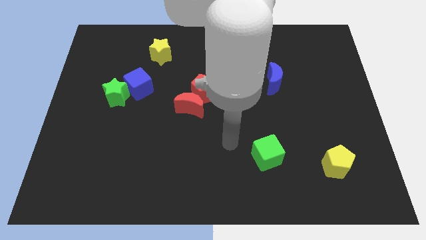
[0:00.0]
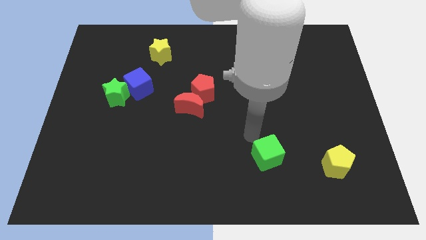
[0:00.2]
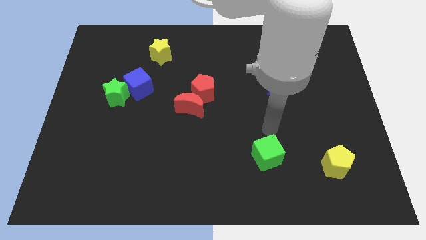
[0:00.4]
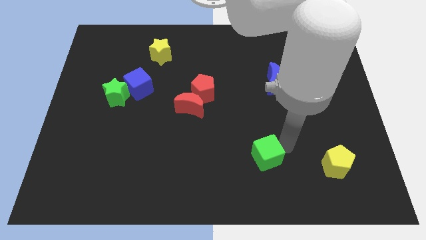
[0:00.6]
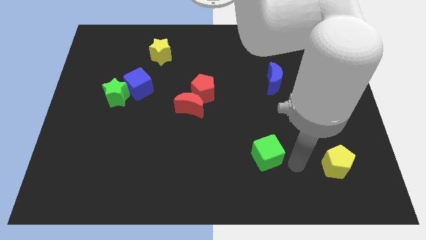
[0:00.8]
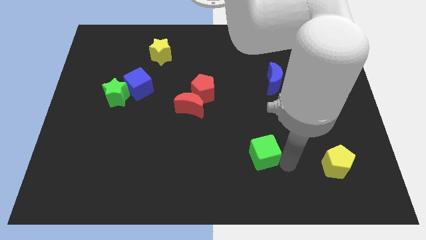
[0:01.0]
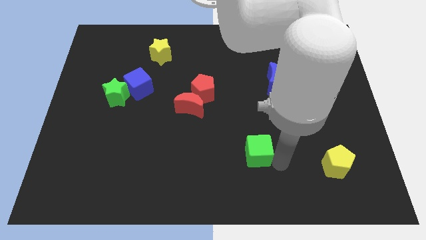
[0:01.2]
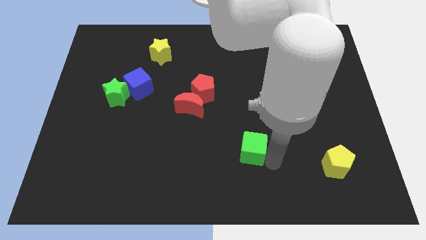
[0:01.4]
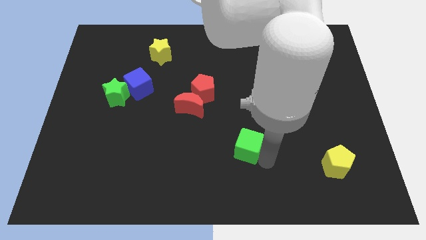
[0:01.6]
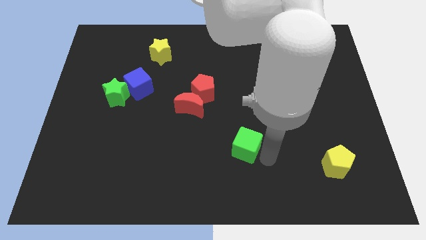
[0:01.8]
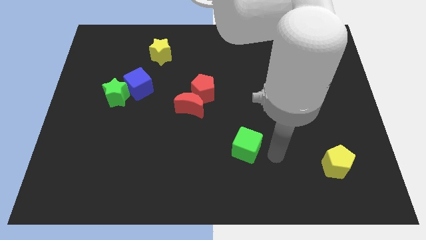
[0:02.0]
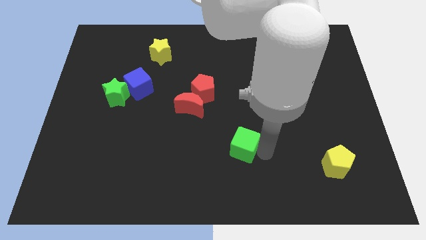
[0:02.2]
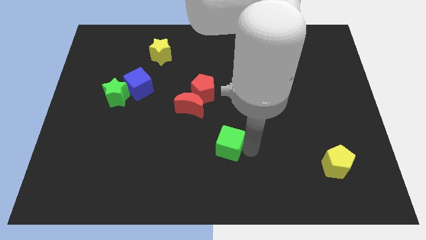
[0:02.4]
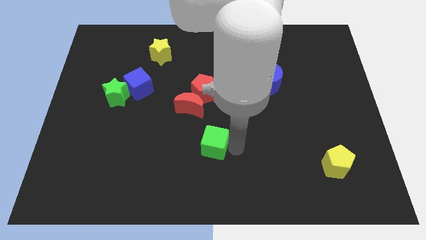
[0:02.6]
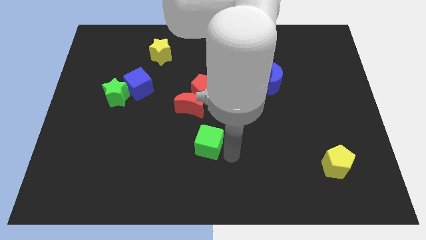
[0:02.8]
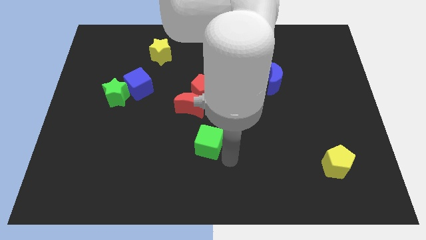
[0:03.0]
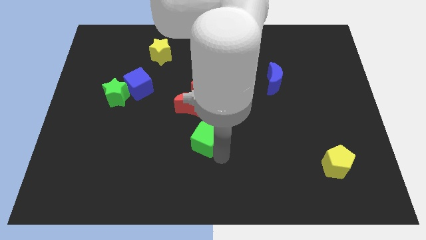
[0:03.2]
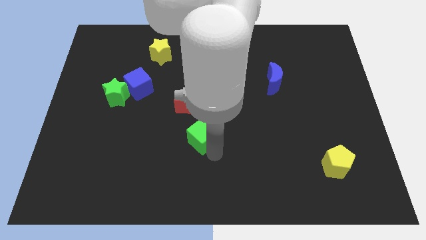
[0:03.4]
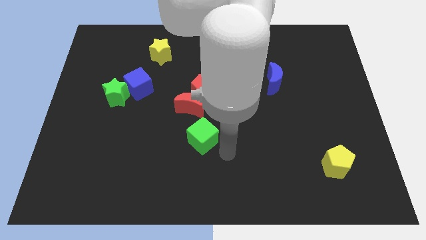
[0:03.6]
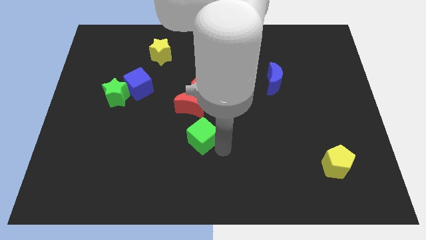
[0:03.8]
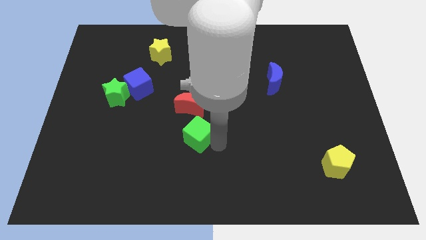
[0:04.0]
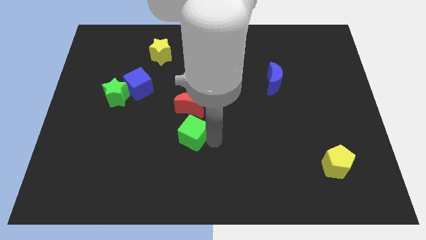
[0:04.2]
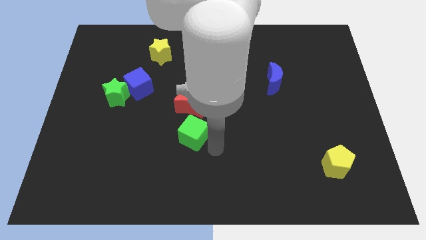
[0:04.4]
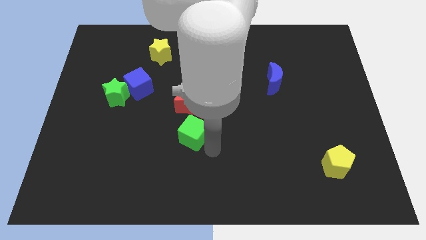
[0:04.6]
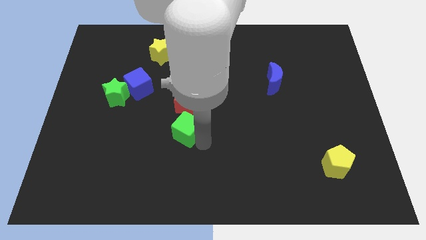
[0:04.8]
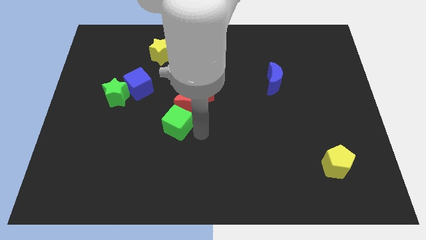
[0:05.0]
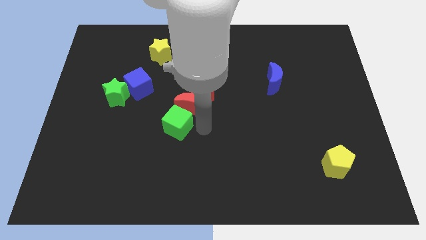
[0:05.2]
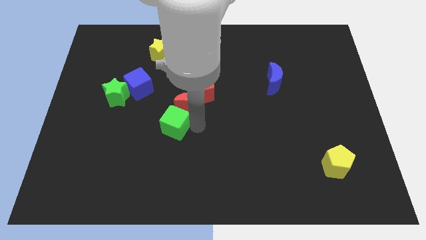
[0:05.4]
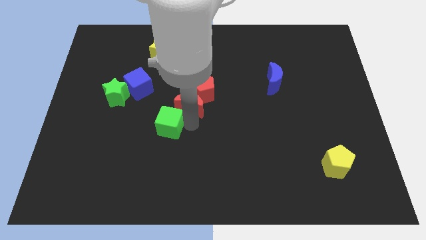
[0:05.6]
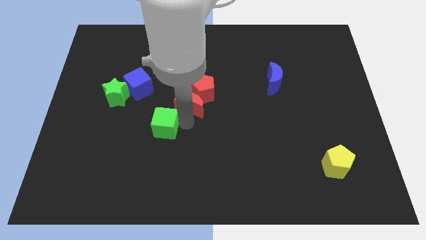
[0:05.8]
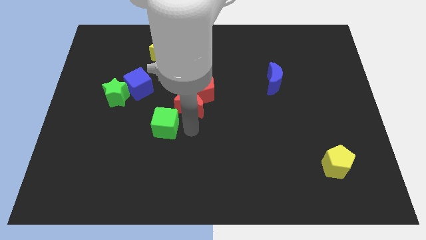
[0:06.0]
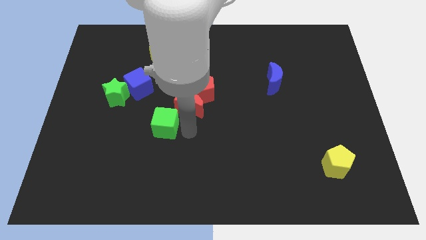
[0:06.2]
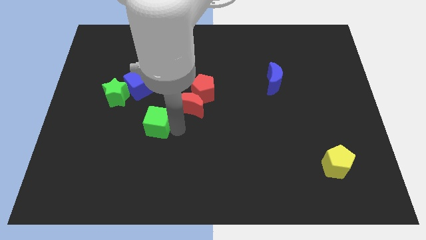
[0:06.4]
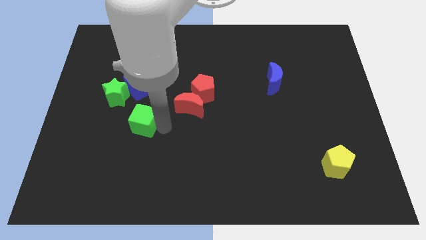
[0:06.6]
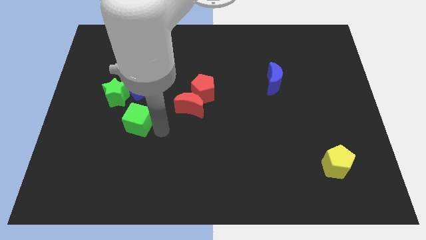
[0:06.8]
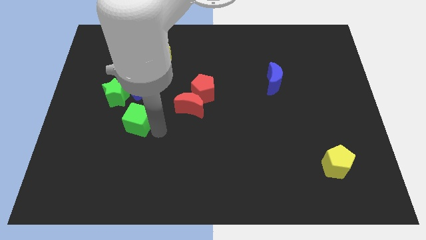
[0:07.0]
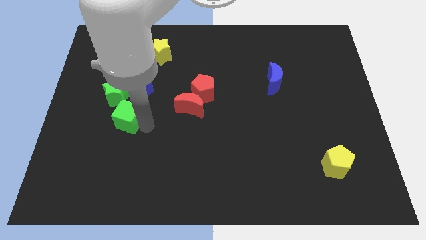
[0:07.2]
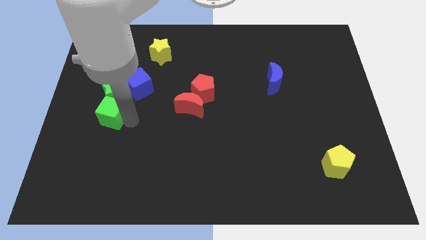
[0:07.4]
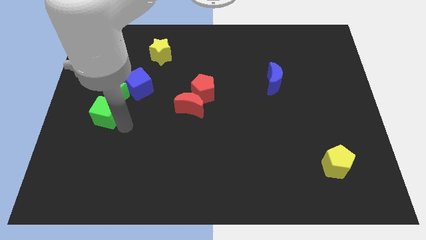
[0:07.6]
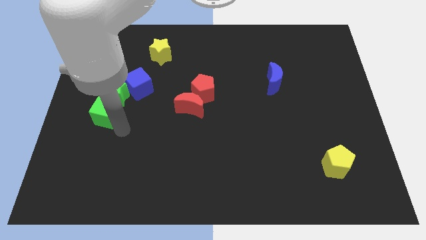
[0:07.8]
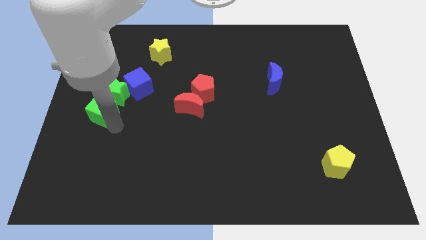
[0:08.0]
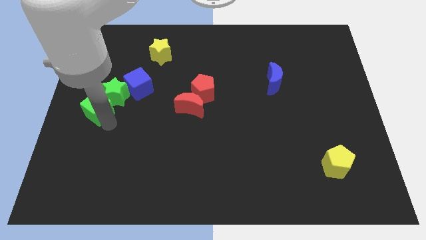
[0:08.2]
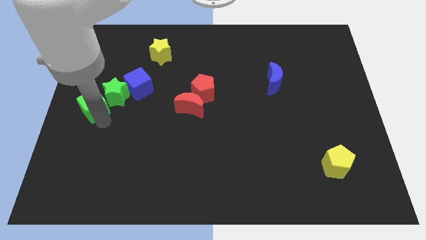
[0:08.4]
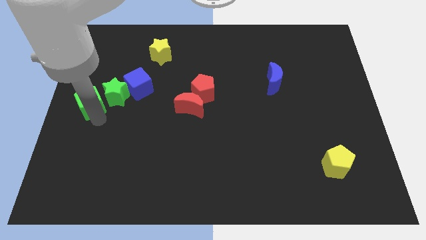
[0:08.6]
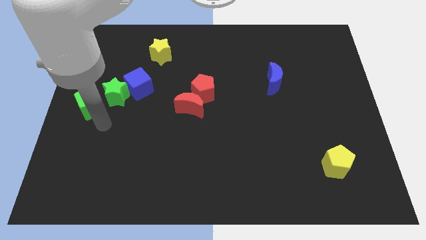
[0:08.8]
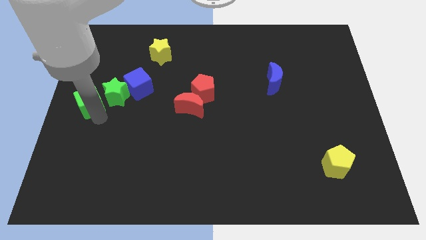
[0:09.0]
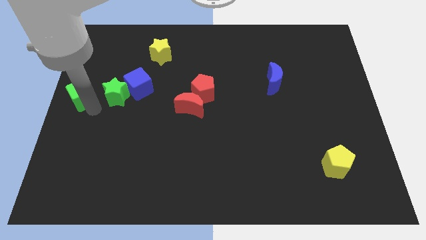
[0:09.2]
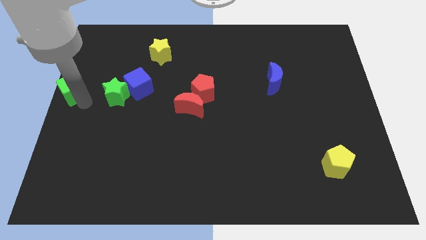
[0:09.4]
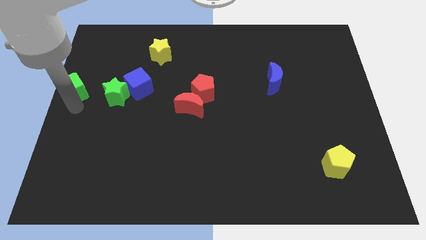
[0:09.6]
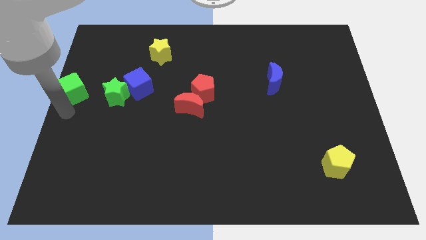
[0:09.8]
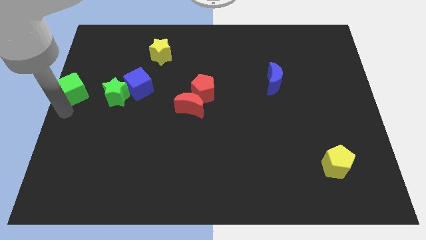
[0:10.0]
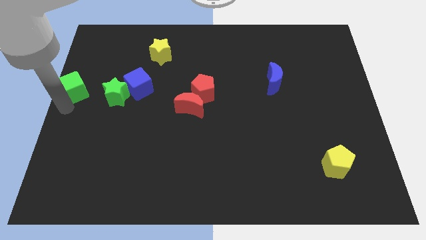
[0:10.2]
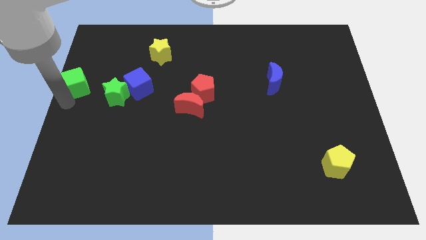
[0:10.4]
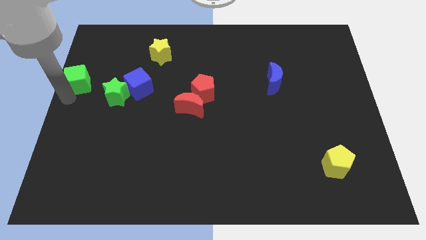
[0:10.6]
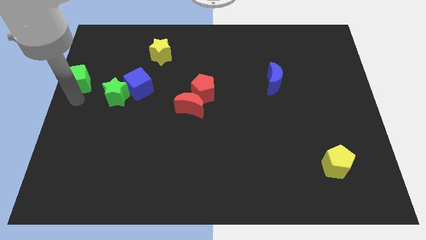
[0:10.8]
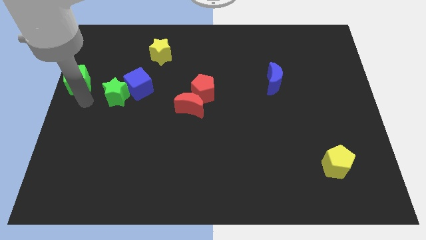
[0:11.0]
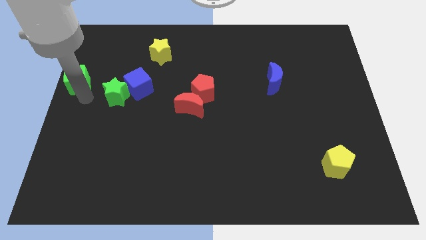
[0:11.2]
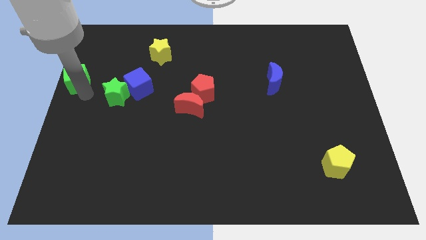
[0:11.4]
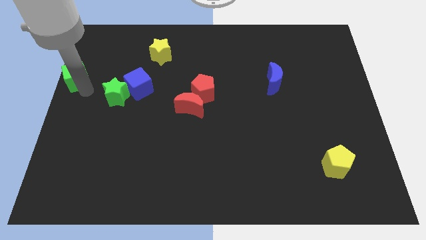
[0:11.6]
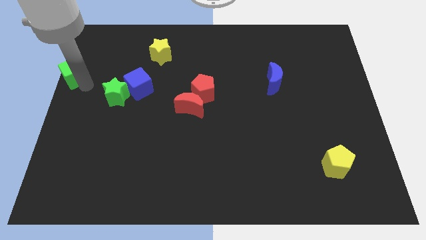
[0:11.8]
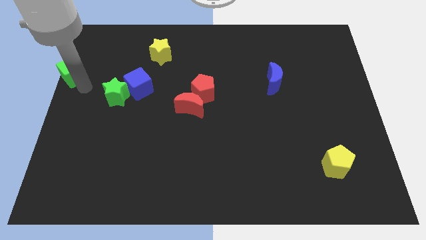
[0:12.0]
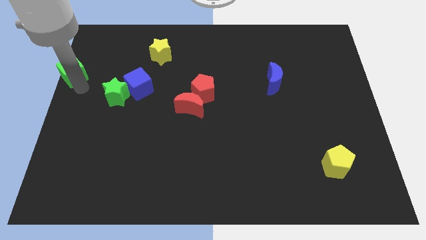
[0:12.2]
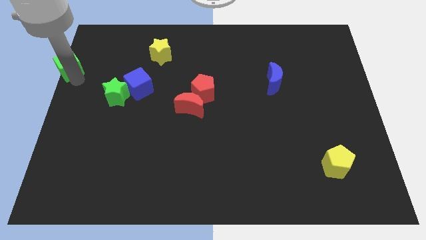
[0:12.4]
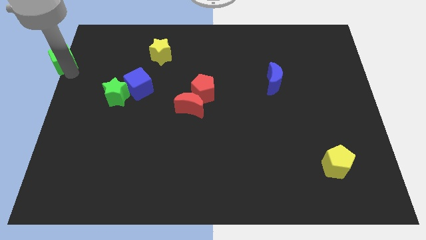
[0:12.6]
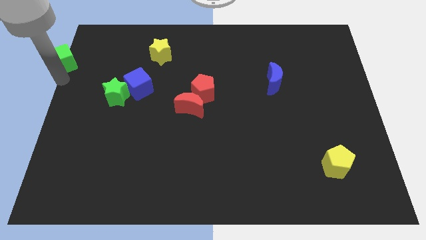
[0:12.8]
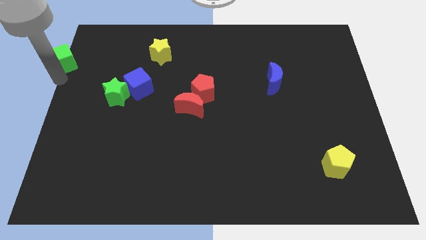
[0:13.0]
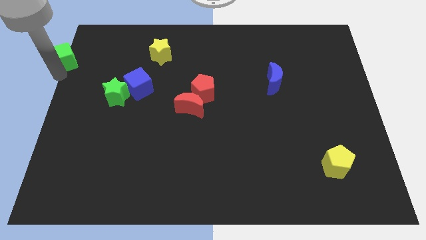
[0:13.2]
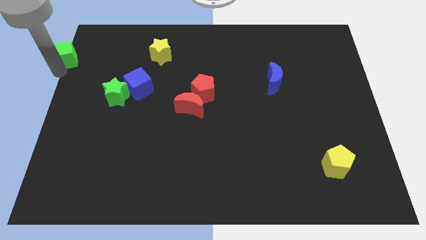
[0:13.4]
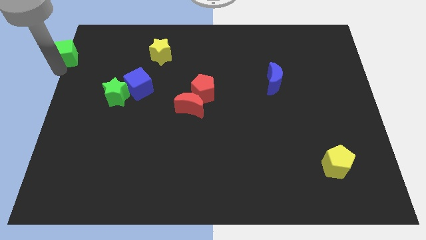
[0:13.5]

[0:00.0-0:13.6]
put the green cube to the top left of the board
